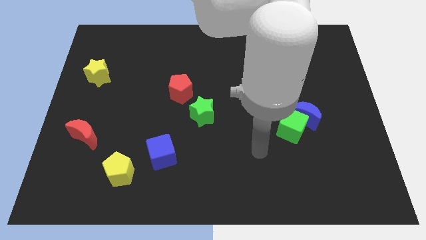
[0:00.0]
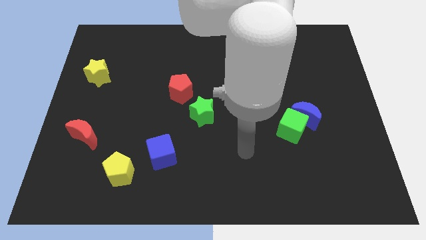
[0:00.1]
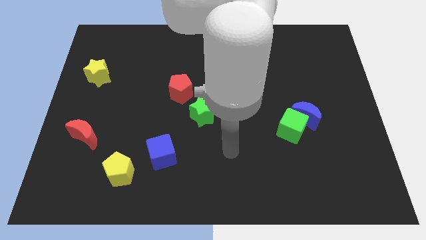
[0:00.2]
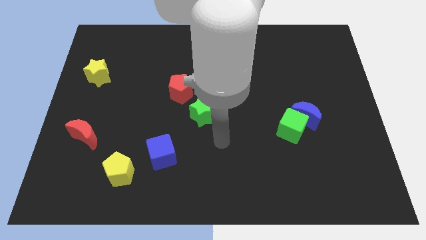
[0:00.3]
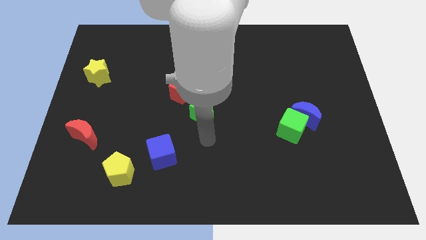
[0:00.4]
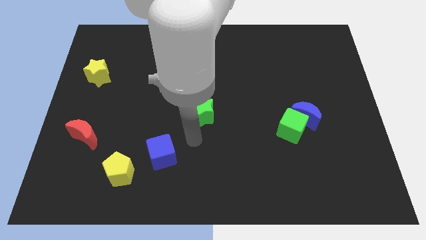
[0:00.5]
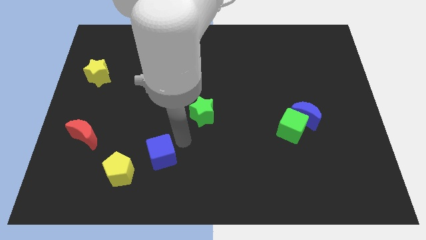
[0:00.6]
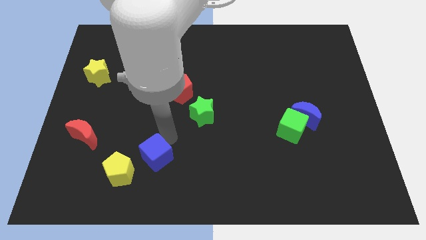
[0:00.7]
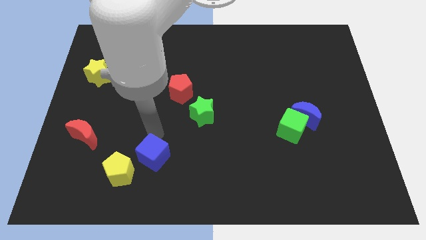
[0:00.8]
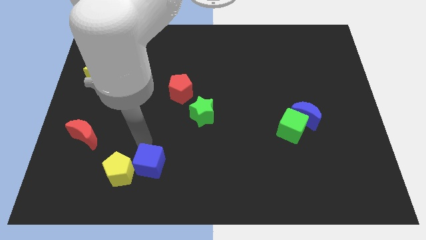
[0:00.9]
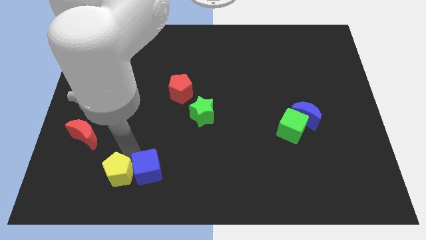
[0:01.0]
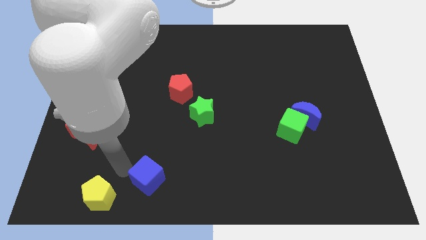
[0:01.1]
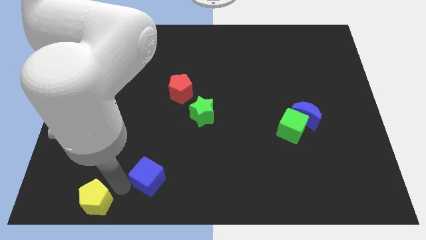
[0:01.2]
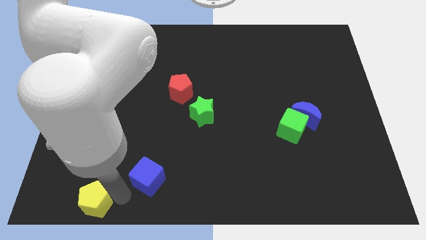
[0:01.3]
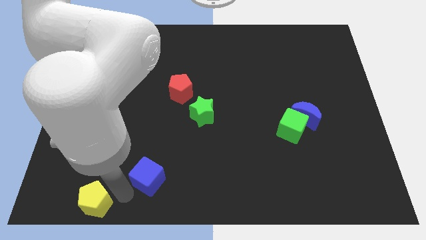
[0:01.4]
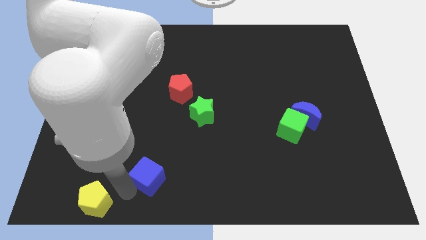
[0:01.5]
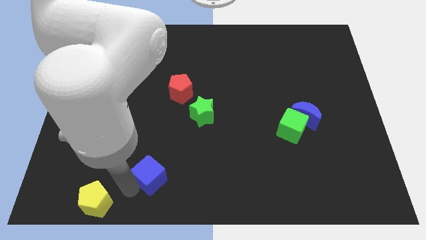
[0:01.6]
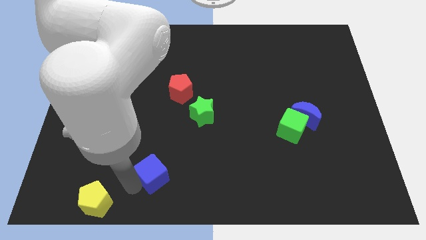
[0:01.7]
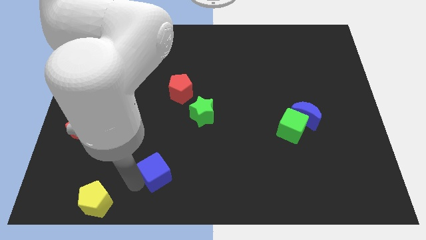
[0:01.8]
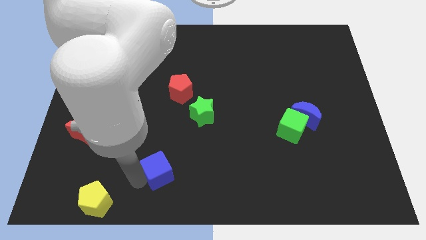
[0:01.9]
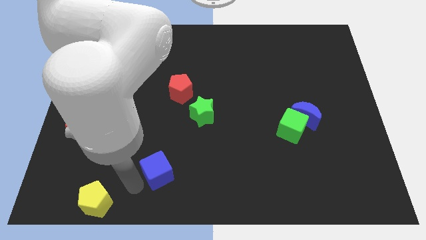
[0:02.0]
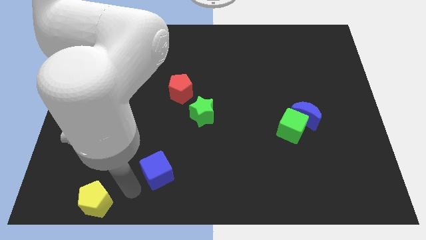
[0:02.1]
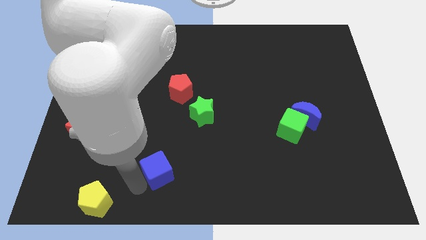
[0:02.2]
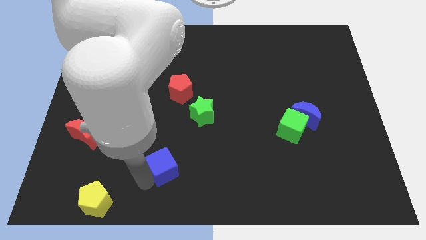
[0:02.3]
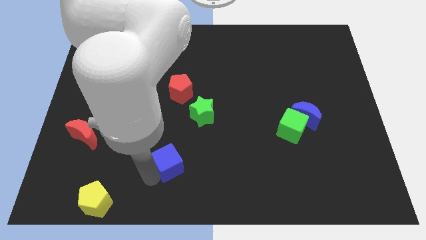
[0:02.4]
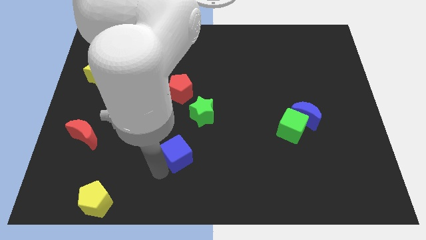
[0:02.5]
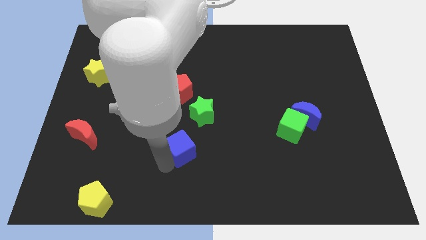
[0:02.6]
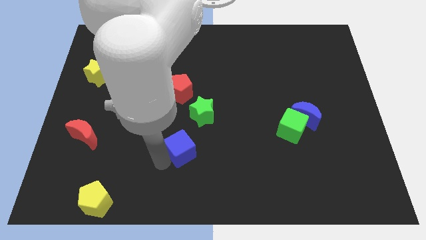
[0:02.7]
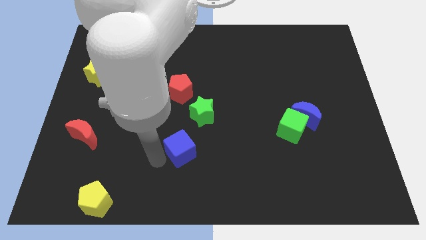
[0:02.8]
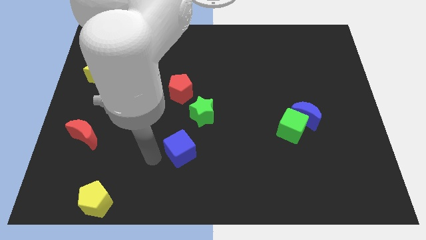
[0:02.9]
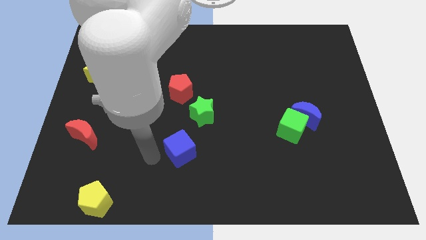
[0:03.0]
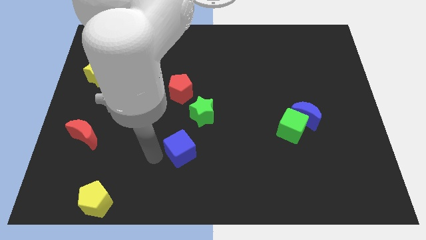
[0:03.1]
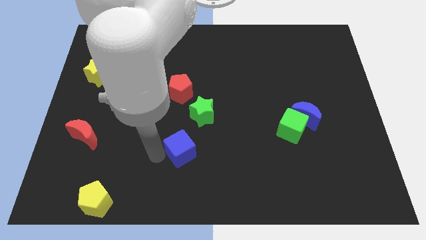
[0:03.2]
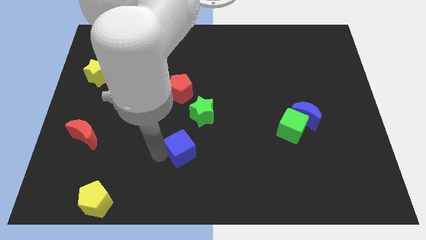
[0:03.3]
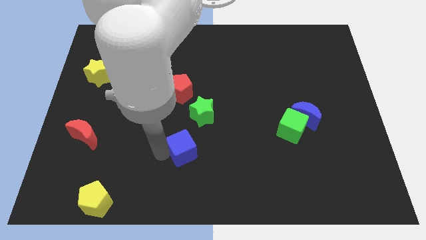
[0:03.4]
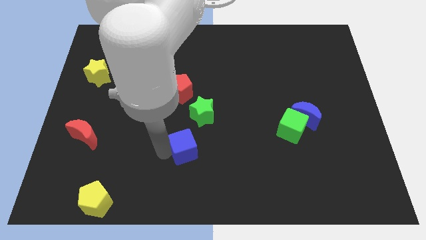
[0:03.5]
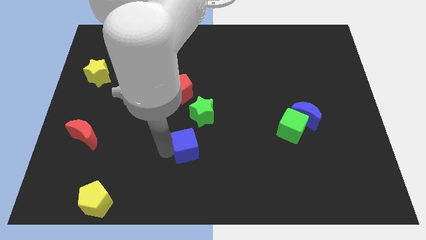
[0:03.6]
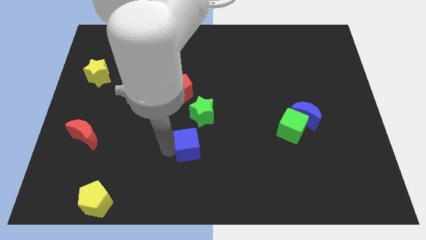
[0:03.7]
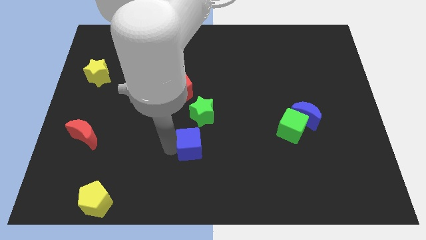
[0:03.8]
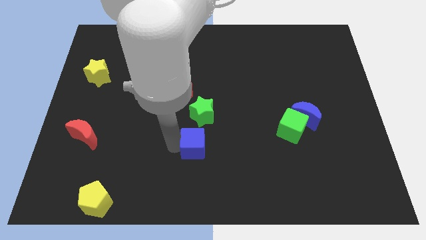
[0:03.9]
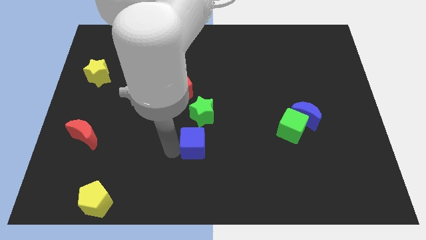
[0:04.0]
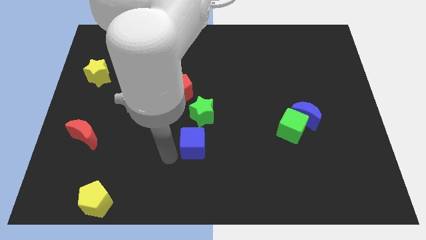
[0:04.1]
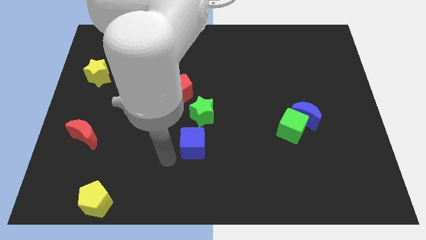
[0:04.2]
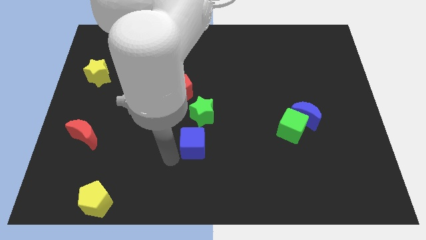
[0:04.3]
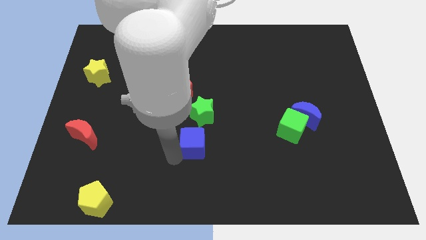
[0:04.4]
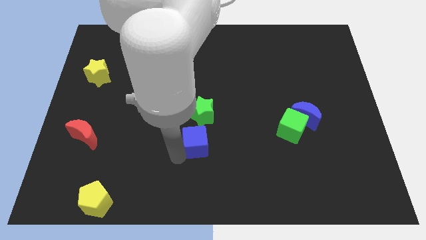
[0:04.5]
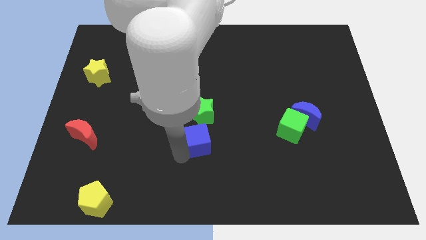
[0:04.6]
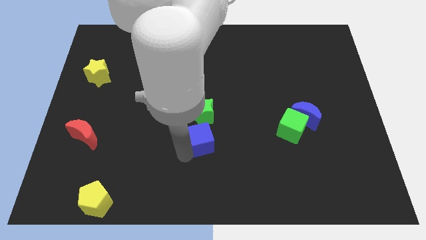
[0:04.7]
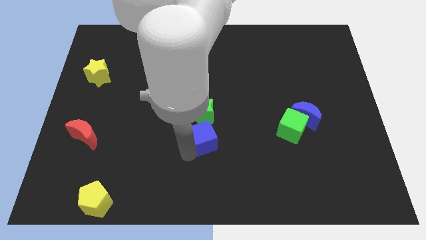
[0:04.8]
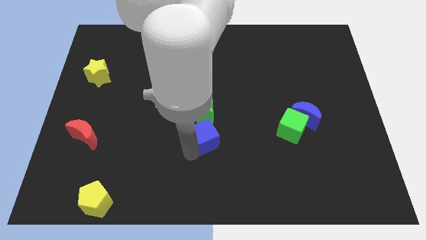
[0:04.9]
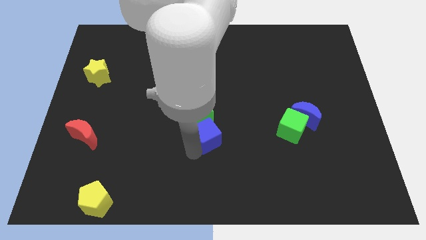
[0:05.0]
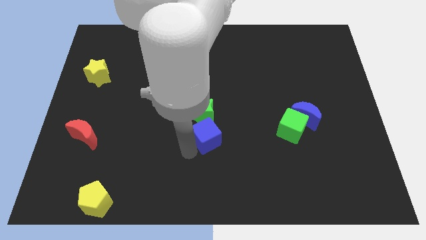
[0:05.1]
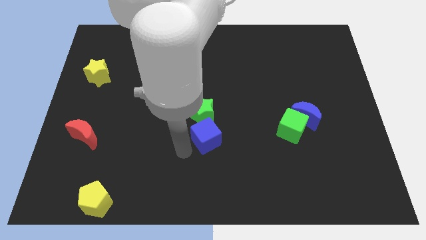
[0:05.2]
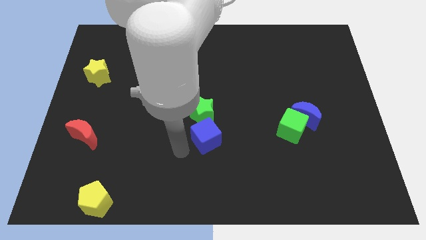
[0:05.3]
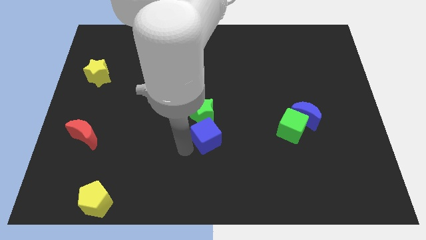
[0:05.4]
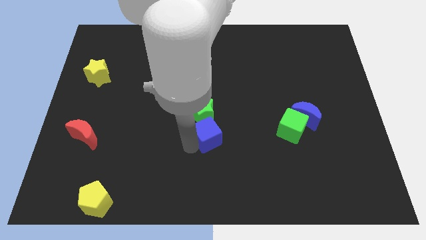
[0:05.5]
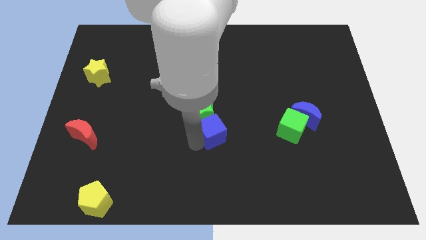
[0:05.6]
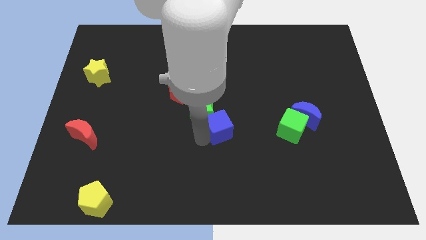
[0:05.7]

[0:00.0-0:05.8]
move the blue cube left of the green cube

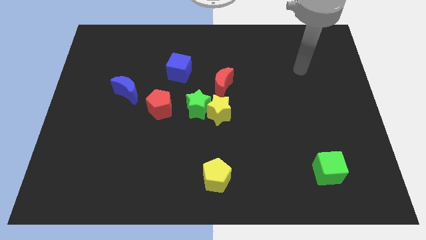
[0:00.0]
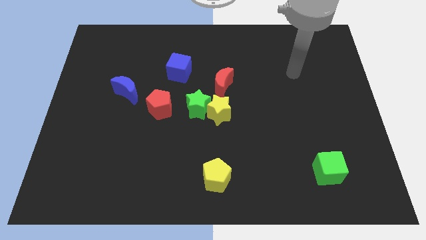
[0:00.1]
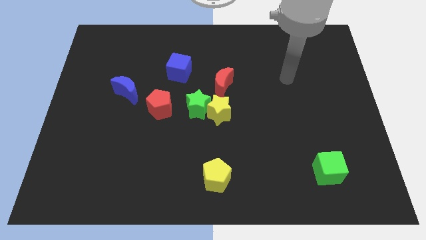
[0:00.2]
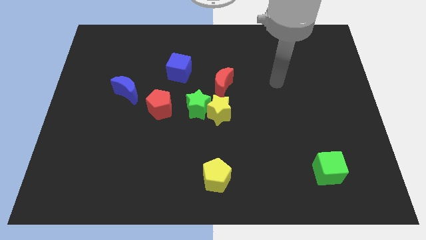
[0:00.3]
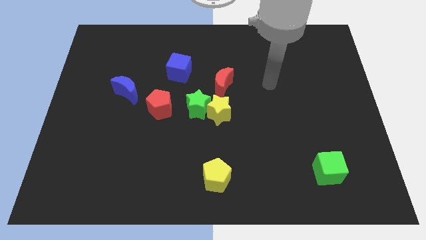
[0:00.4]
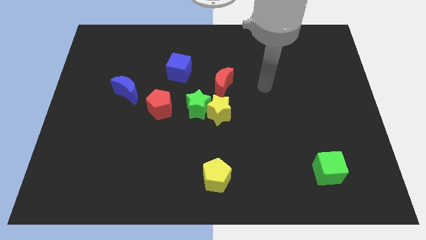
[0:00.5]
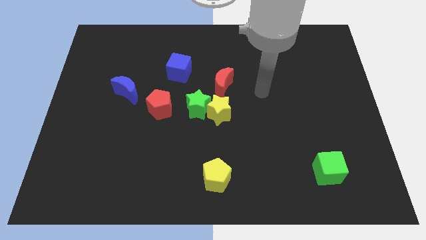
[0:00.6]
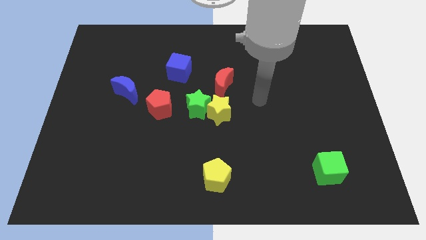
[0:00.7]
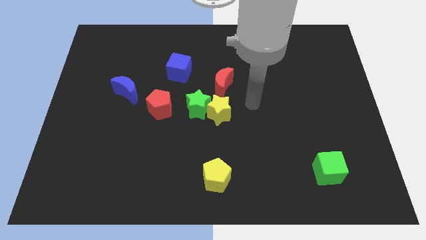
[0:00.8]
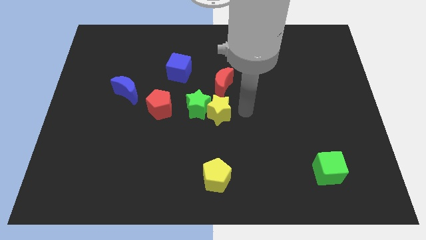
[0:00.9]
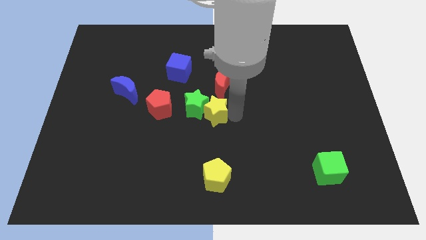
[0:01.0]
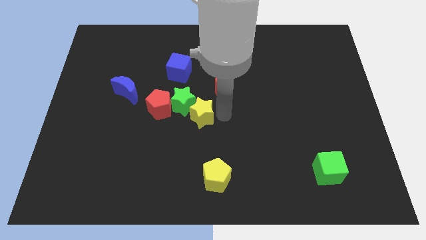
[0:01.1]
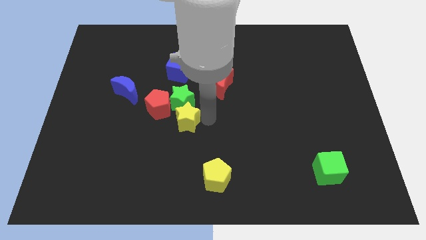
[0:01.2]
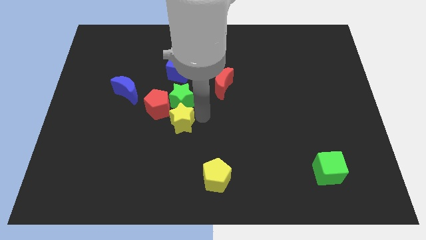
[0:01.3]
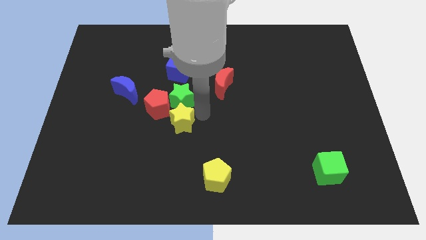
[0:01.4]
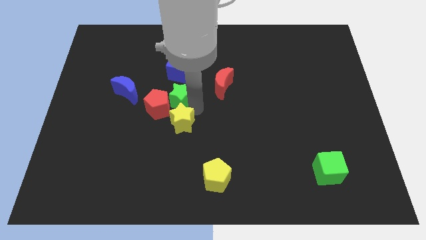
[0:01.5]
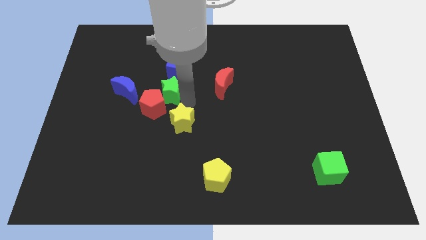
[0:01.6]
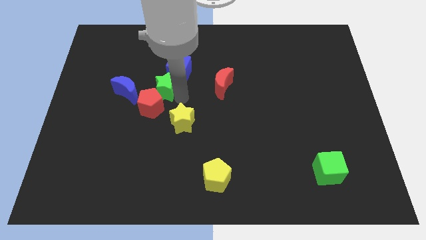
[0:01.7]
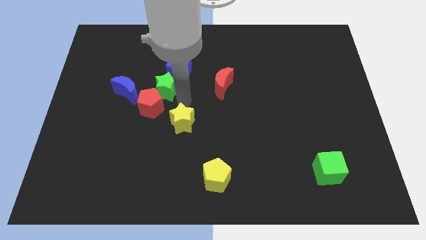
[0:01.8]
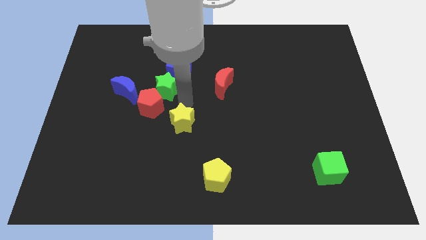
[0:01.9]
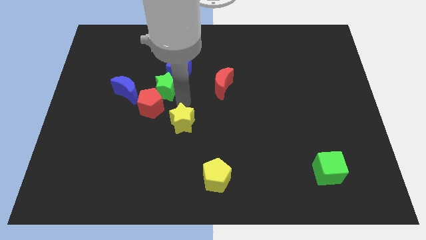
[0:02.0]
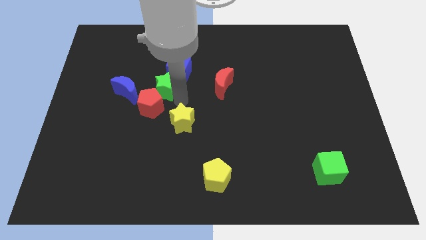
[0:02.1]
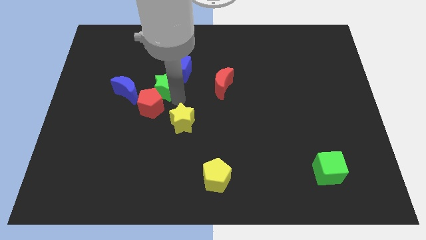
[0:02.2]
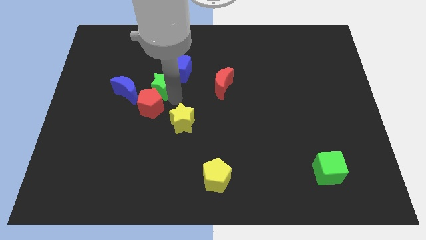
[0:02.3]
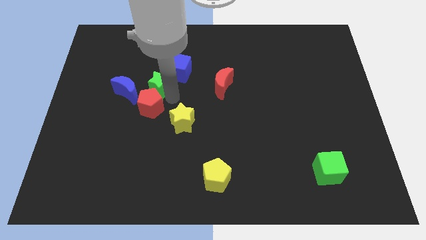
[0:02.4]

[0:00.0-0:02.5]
put the green star to the top right side of the blue moon
